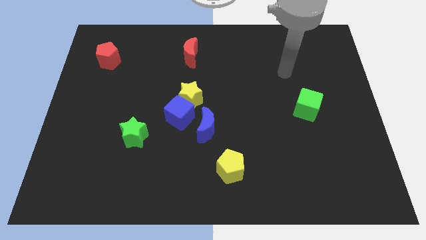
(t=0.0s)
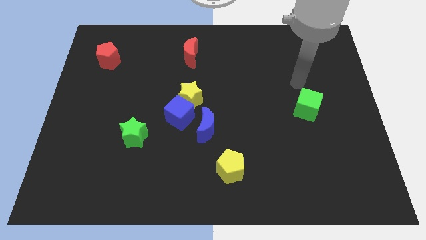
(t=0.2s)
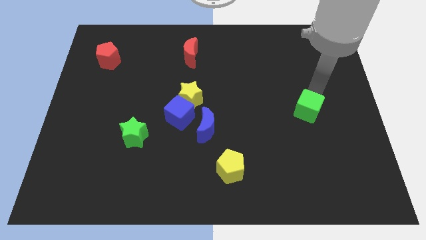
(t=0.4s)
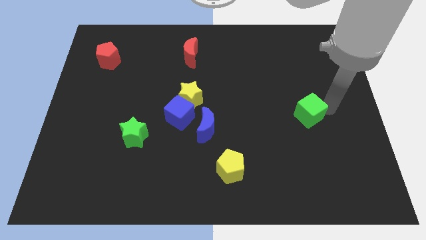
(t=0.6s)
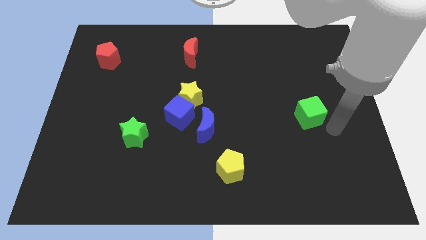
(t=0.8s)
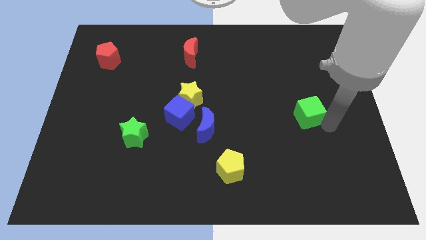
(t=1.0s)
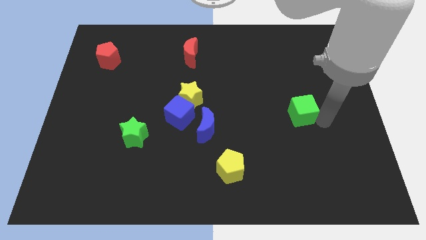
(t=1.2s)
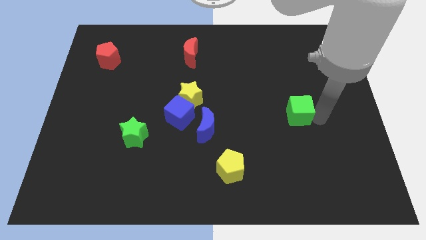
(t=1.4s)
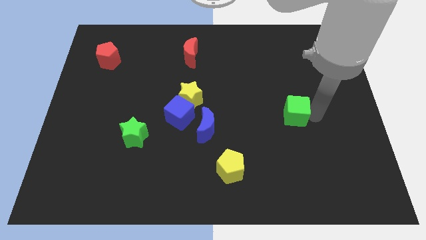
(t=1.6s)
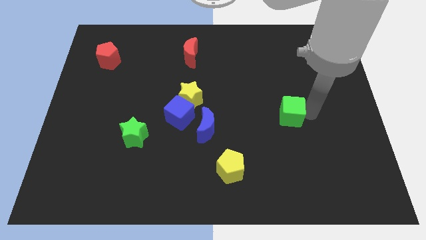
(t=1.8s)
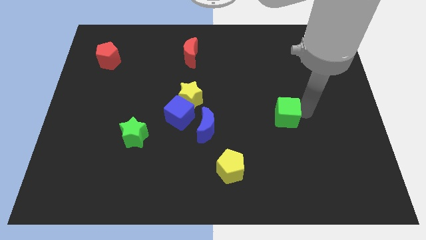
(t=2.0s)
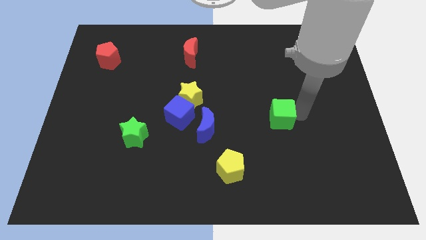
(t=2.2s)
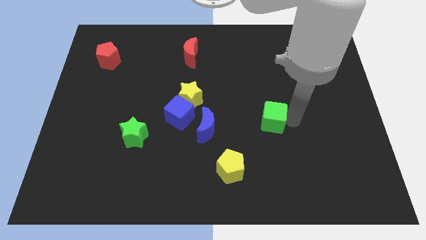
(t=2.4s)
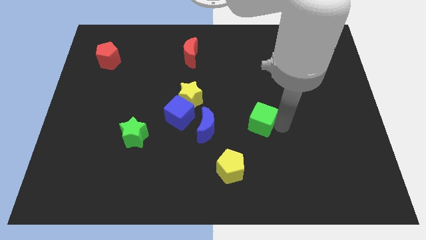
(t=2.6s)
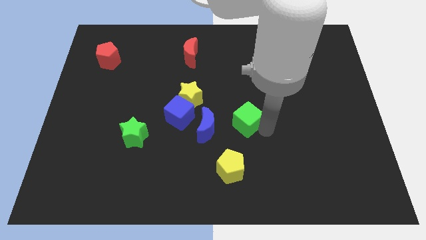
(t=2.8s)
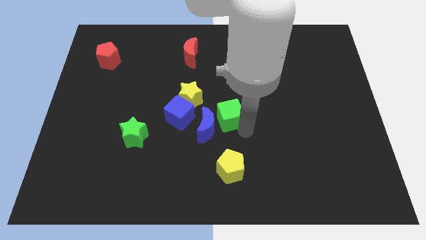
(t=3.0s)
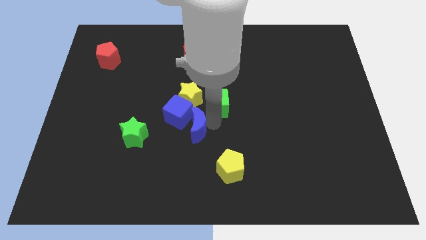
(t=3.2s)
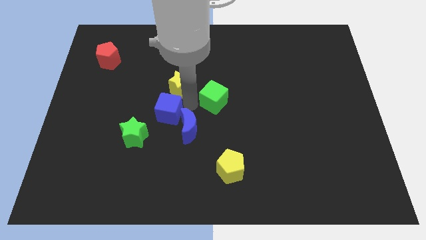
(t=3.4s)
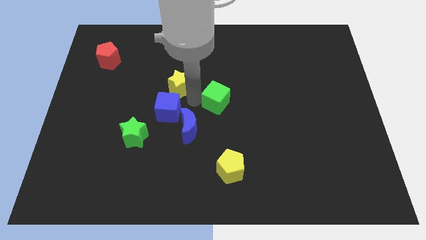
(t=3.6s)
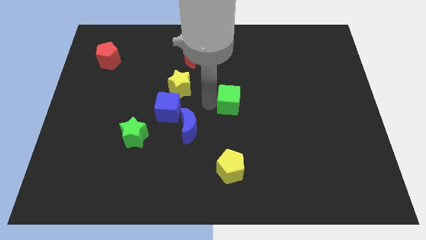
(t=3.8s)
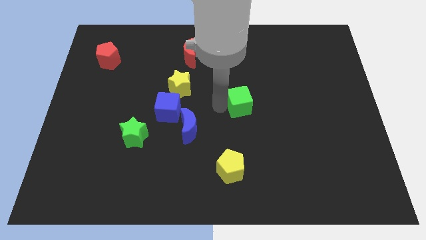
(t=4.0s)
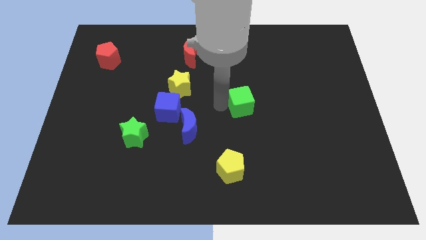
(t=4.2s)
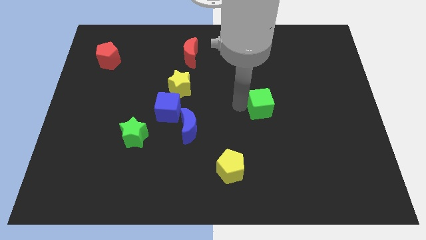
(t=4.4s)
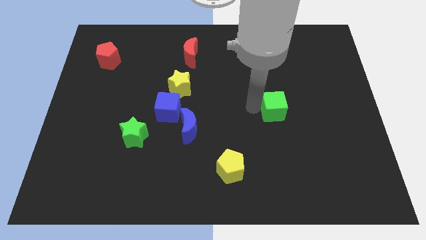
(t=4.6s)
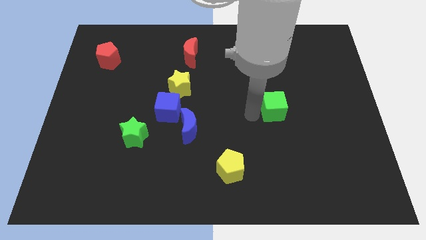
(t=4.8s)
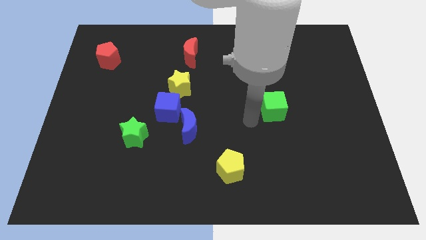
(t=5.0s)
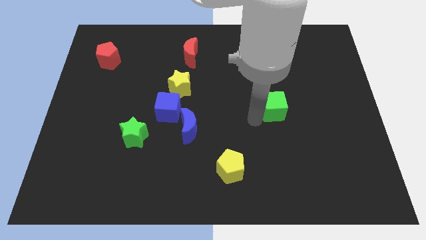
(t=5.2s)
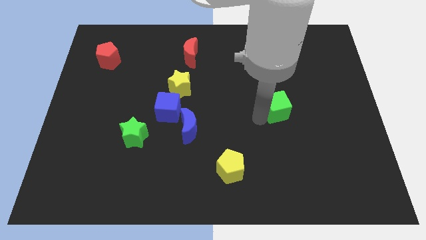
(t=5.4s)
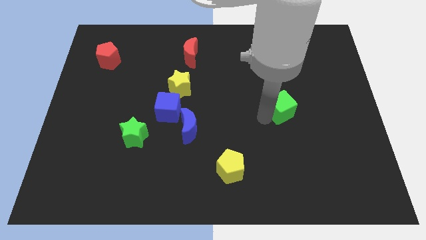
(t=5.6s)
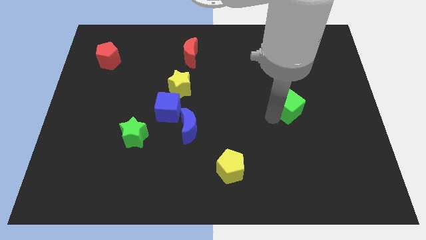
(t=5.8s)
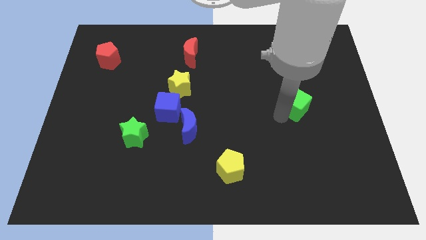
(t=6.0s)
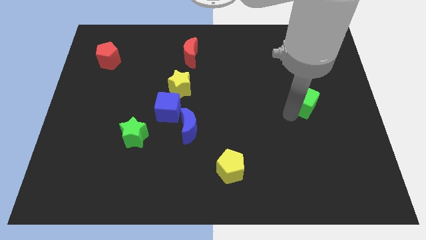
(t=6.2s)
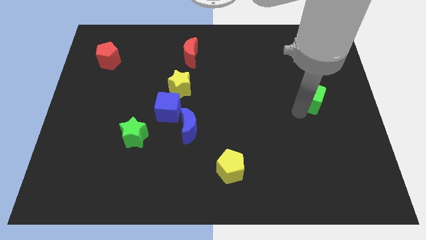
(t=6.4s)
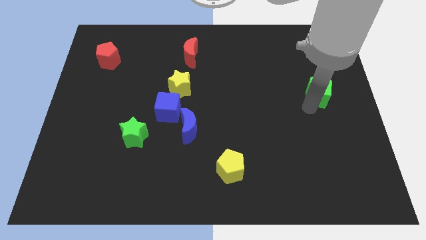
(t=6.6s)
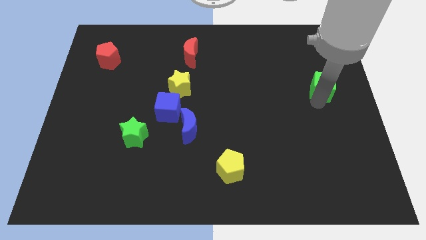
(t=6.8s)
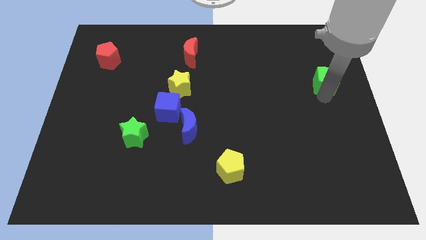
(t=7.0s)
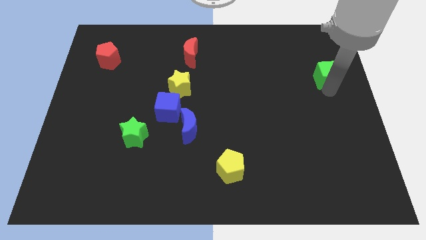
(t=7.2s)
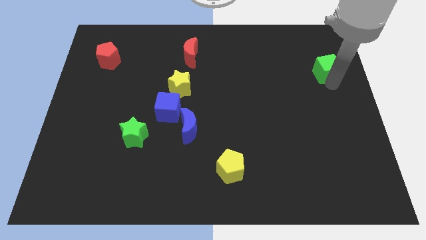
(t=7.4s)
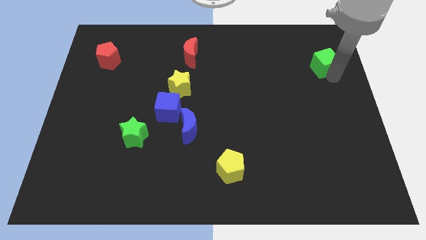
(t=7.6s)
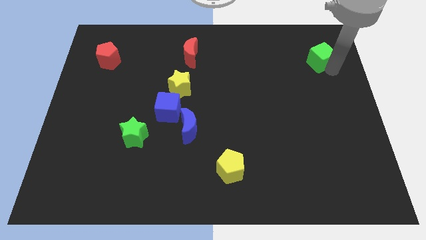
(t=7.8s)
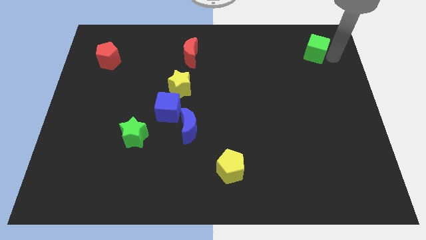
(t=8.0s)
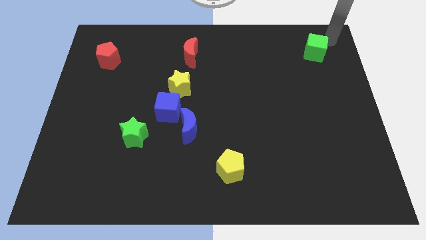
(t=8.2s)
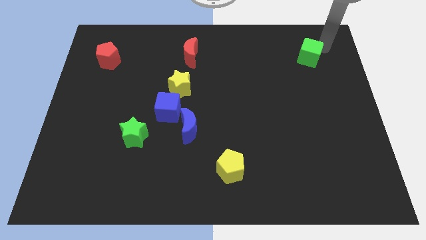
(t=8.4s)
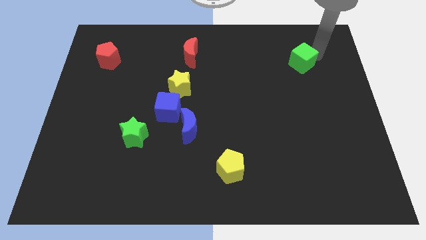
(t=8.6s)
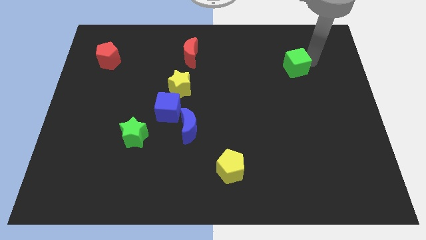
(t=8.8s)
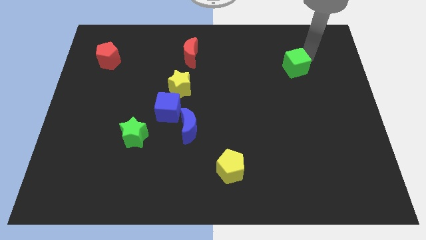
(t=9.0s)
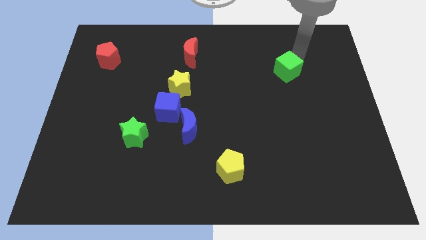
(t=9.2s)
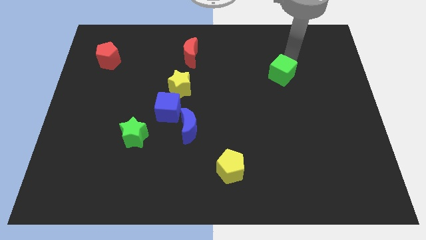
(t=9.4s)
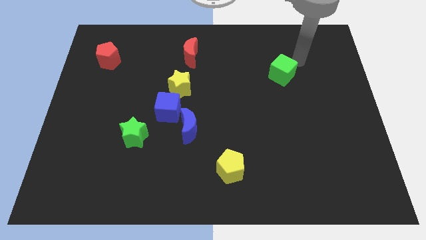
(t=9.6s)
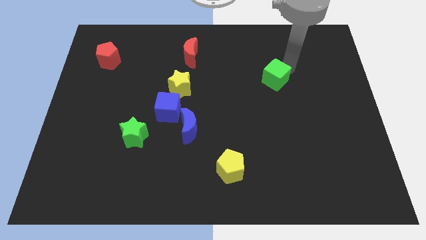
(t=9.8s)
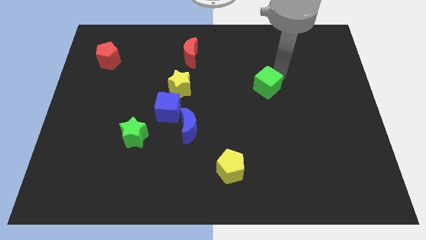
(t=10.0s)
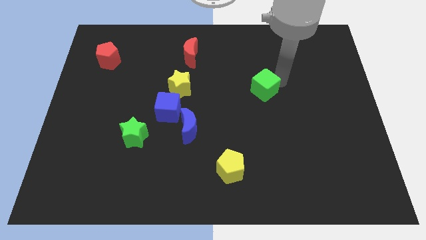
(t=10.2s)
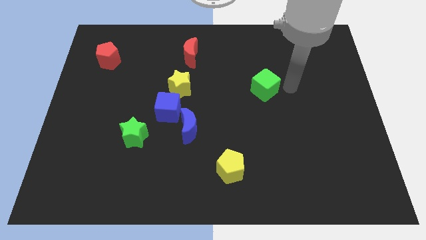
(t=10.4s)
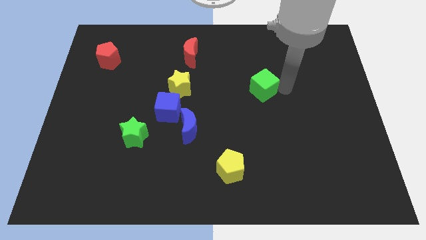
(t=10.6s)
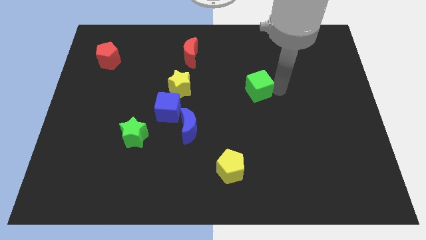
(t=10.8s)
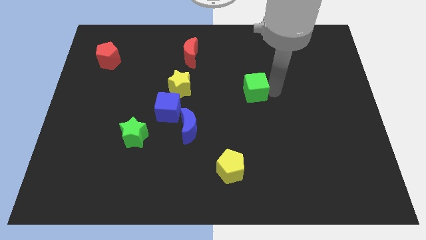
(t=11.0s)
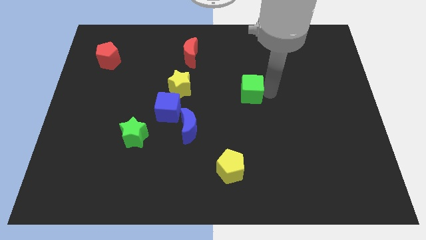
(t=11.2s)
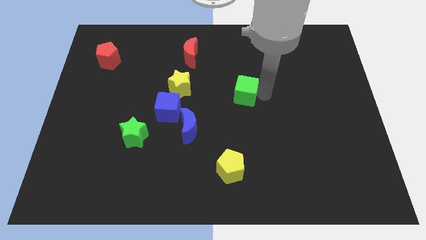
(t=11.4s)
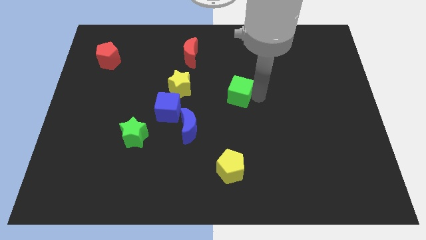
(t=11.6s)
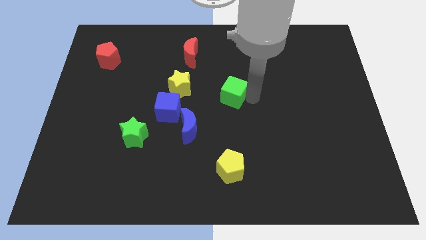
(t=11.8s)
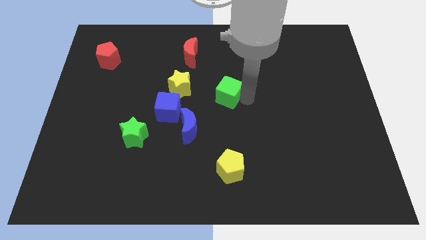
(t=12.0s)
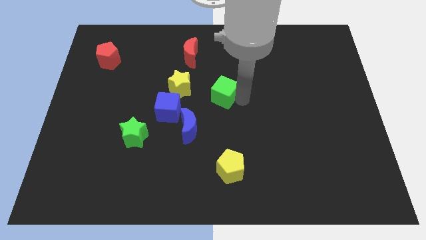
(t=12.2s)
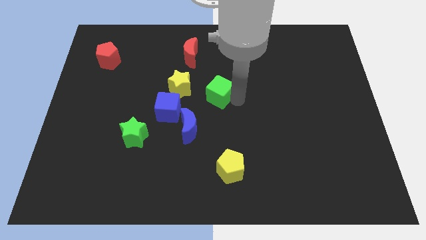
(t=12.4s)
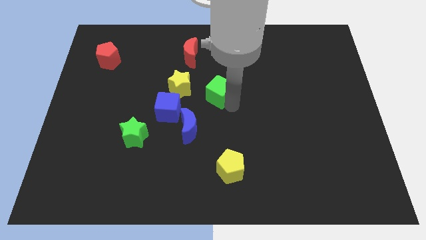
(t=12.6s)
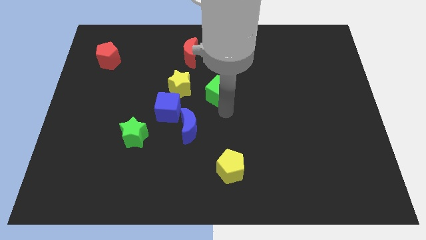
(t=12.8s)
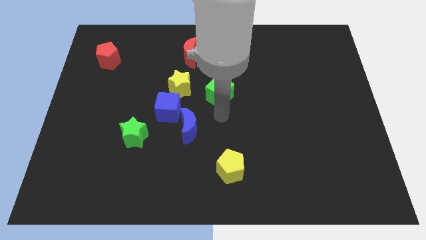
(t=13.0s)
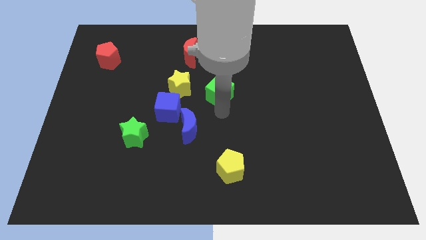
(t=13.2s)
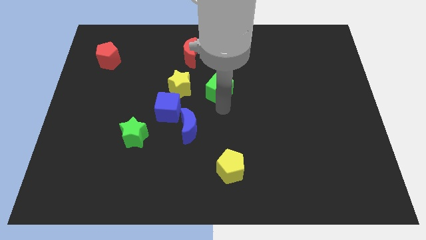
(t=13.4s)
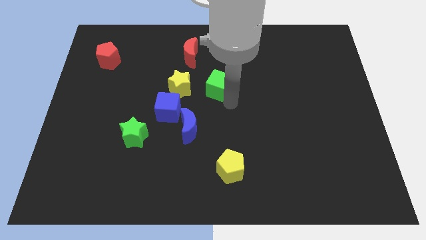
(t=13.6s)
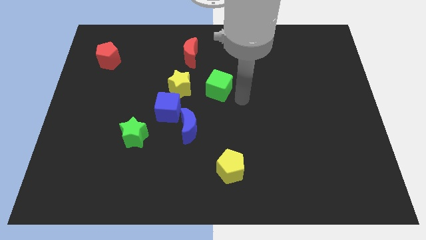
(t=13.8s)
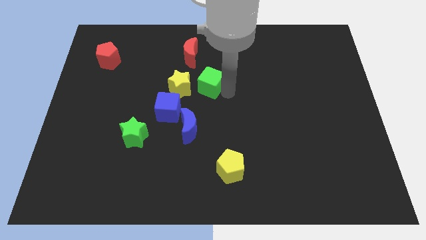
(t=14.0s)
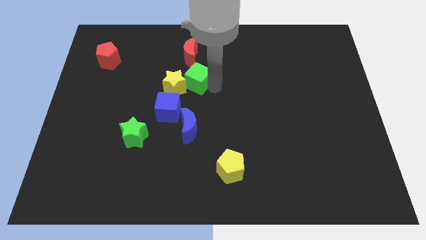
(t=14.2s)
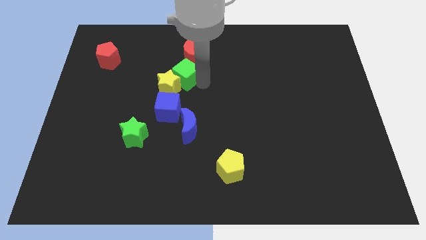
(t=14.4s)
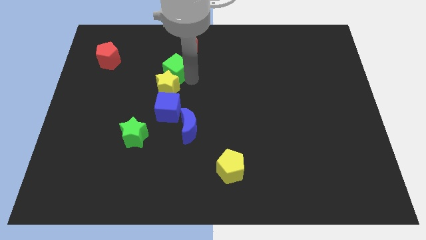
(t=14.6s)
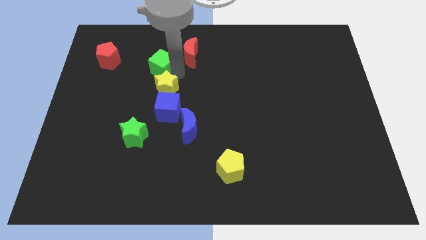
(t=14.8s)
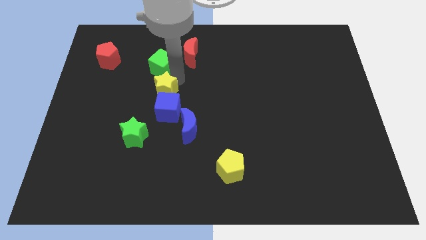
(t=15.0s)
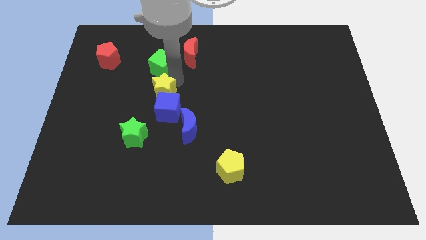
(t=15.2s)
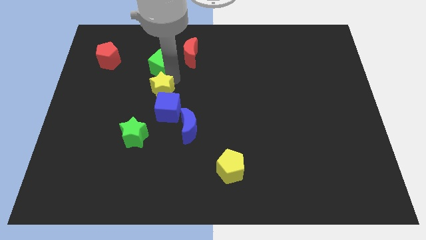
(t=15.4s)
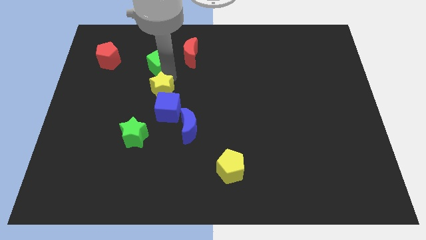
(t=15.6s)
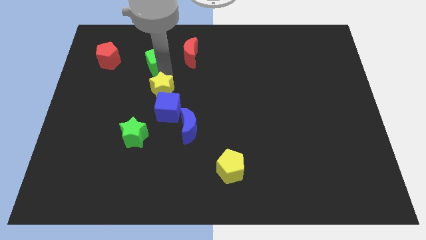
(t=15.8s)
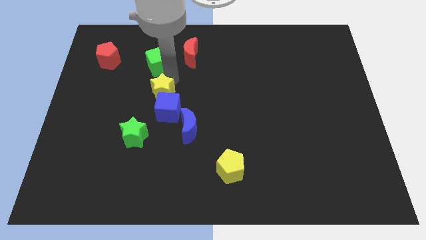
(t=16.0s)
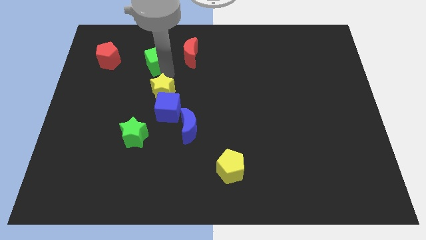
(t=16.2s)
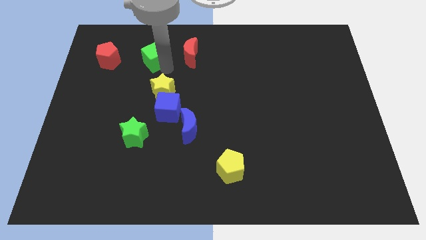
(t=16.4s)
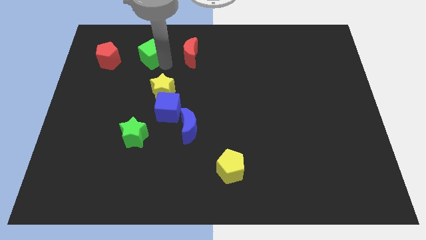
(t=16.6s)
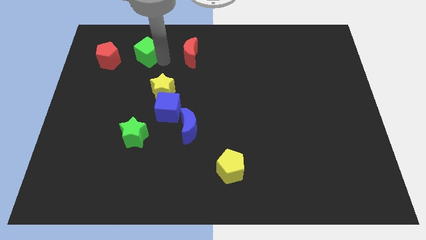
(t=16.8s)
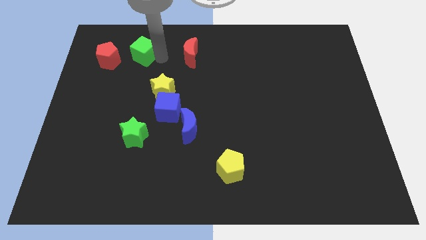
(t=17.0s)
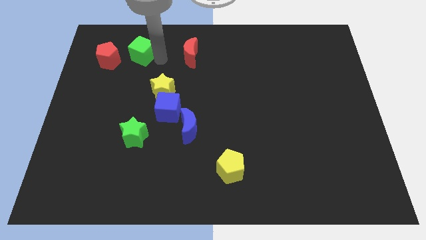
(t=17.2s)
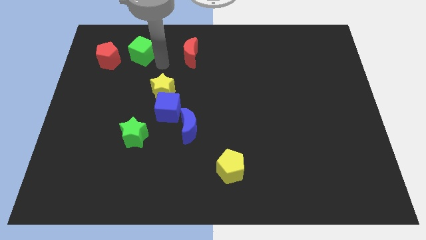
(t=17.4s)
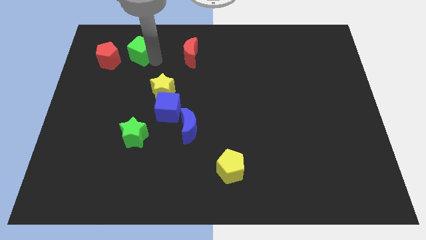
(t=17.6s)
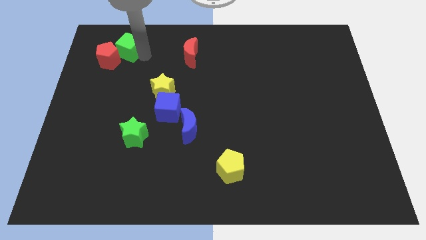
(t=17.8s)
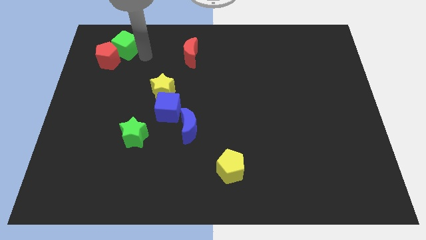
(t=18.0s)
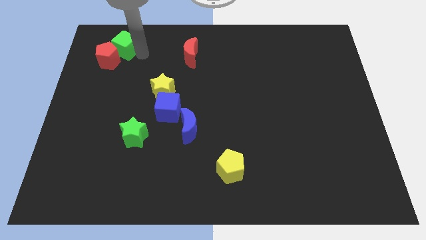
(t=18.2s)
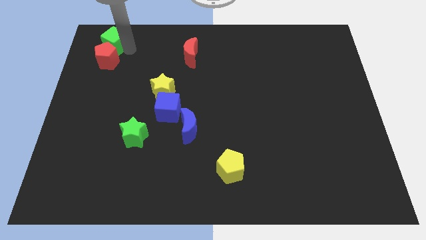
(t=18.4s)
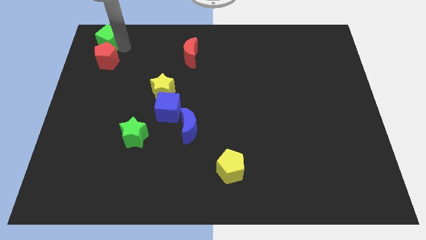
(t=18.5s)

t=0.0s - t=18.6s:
move the green cube to the upper left corner
